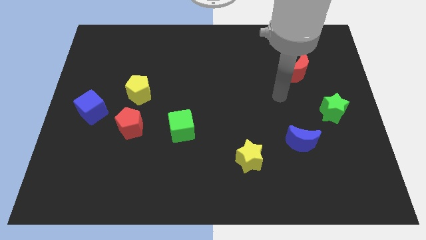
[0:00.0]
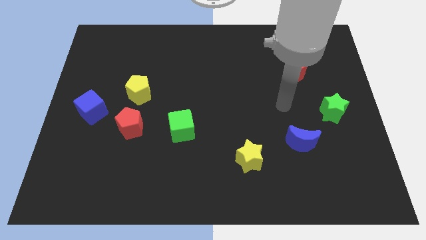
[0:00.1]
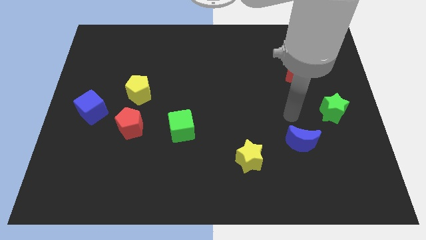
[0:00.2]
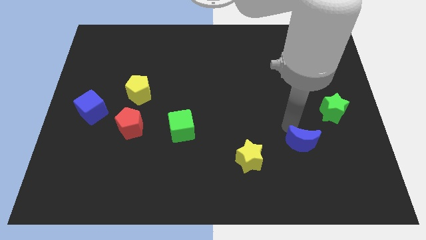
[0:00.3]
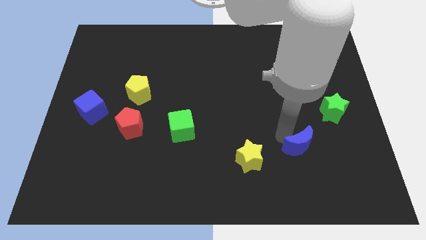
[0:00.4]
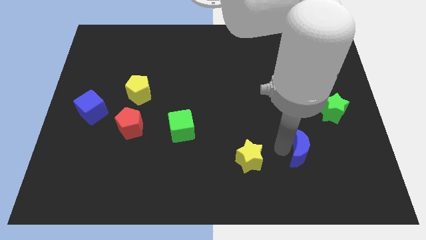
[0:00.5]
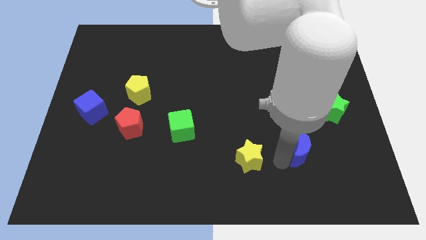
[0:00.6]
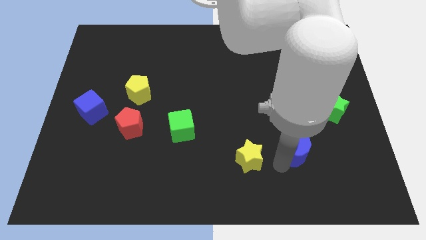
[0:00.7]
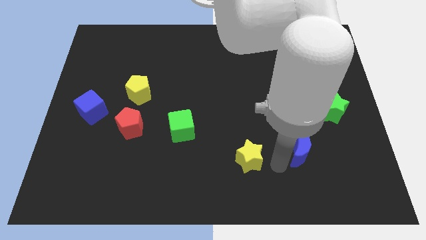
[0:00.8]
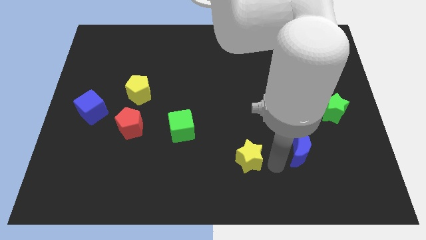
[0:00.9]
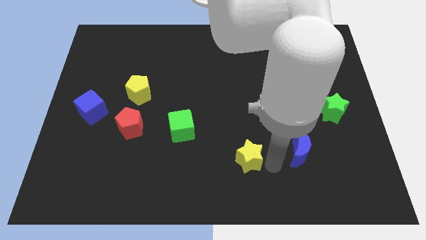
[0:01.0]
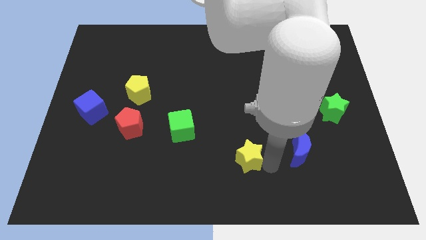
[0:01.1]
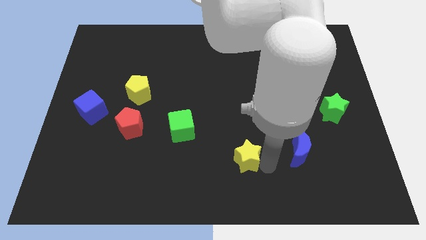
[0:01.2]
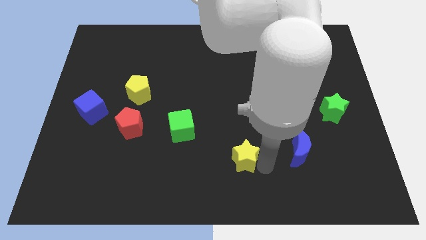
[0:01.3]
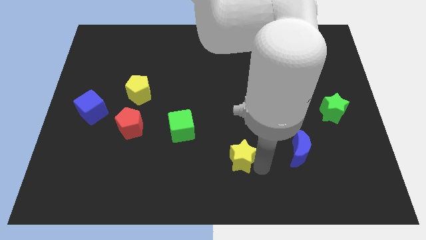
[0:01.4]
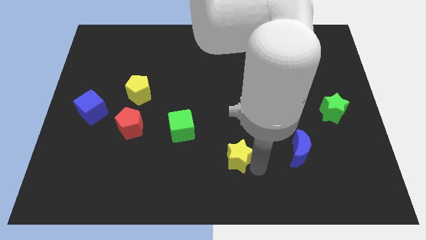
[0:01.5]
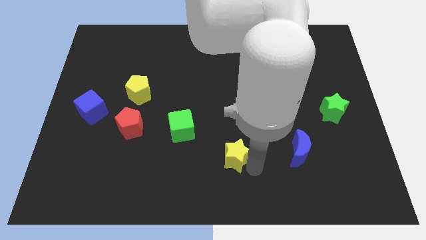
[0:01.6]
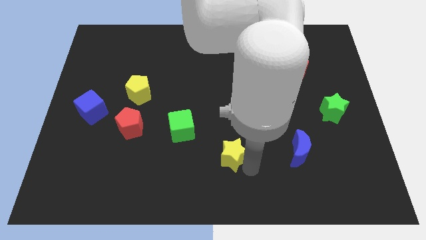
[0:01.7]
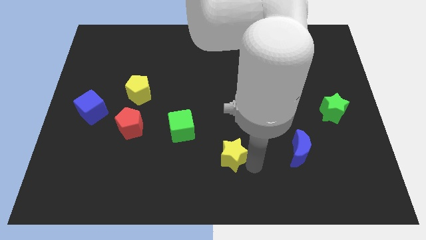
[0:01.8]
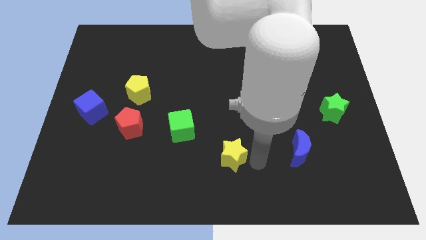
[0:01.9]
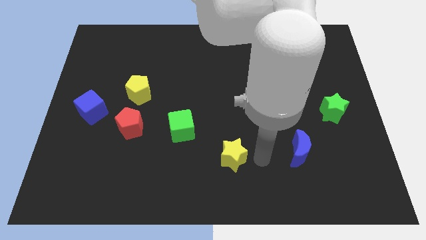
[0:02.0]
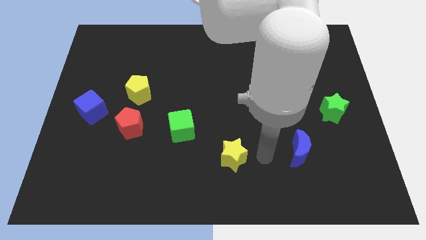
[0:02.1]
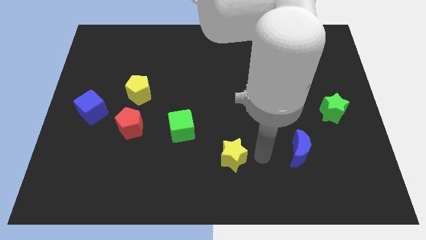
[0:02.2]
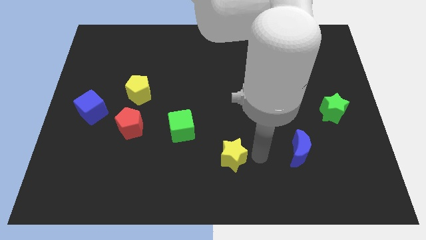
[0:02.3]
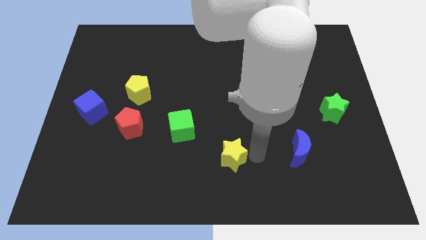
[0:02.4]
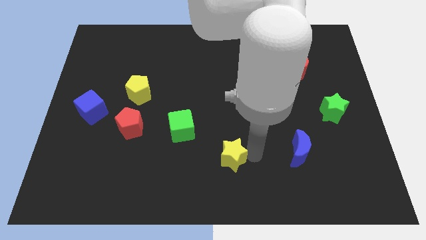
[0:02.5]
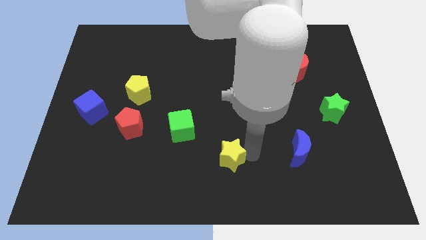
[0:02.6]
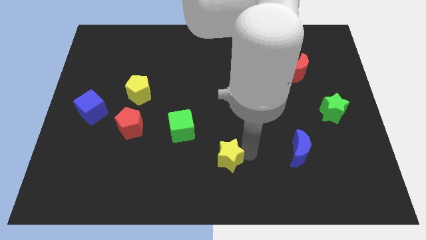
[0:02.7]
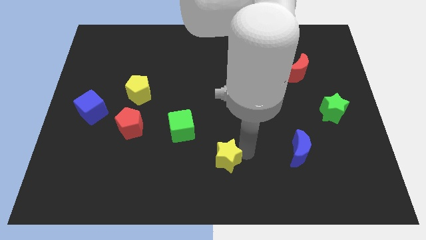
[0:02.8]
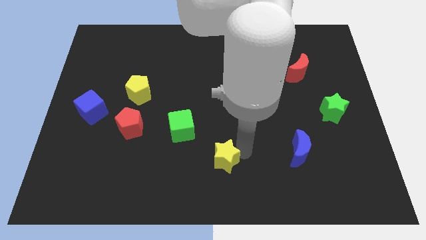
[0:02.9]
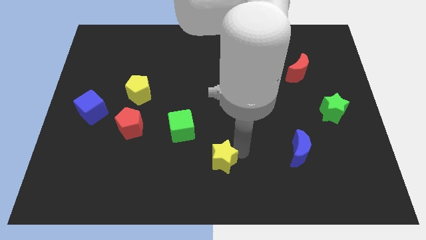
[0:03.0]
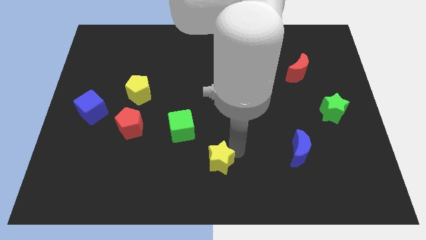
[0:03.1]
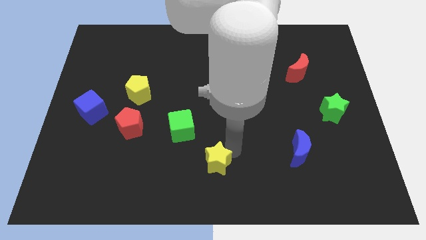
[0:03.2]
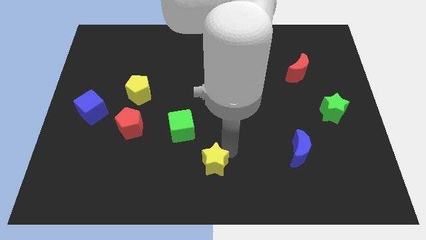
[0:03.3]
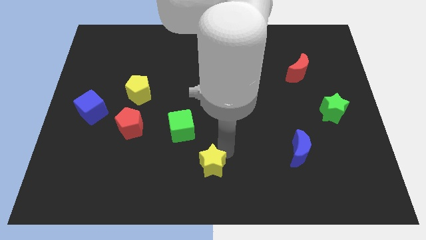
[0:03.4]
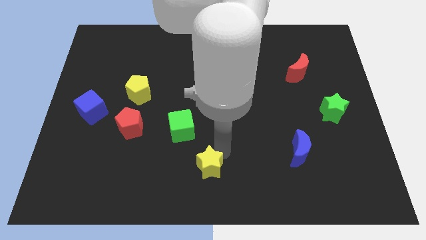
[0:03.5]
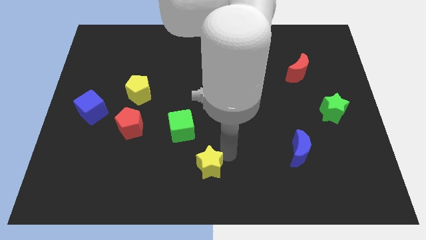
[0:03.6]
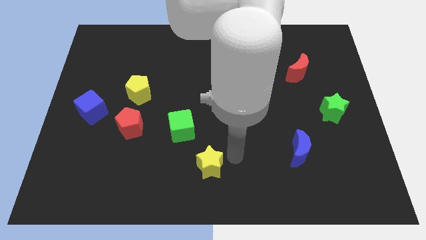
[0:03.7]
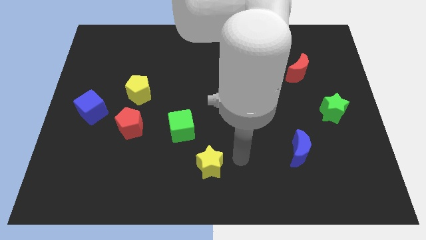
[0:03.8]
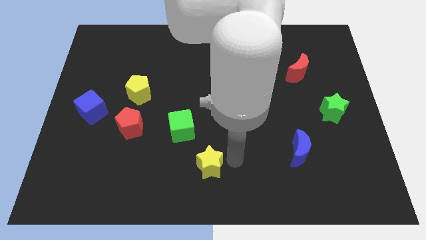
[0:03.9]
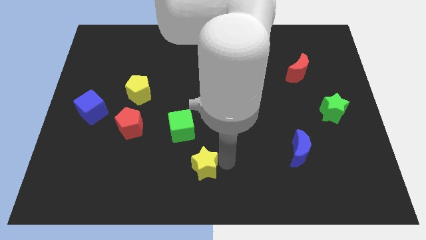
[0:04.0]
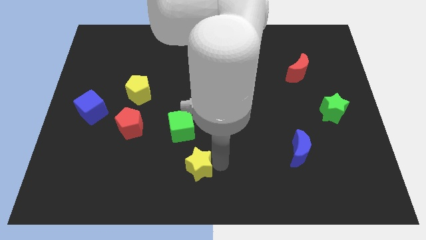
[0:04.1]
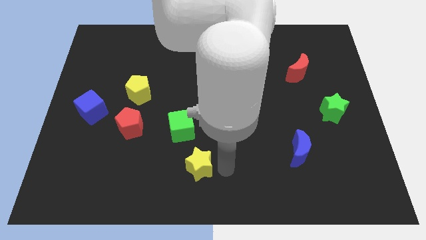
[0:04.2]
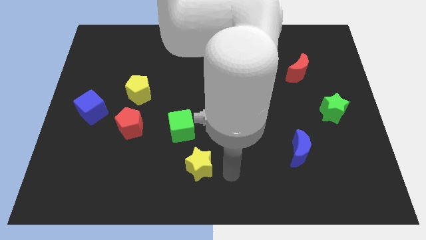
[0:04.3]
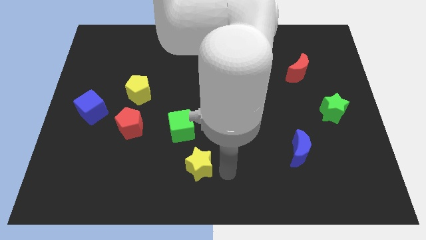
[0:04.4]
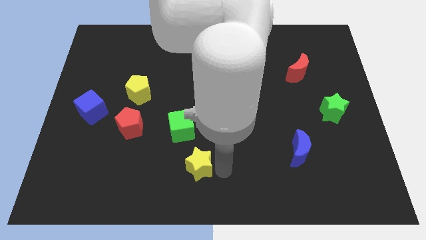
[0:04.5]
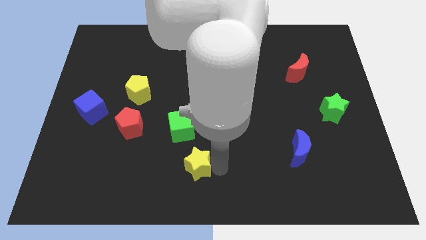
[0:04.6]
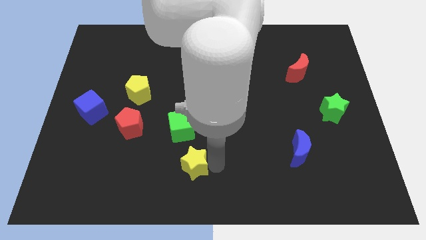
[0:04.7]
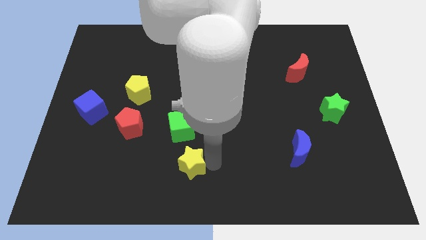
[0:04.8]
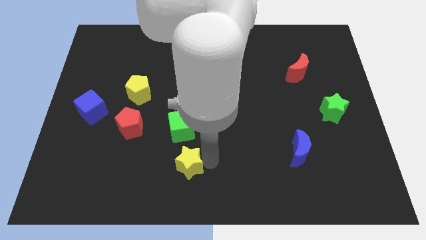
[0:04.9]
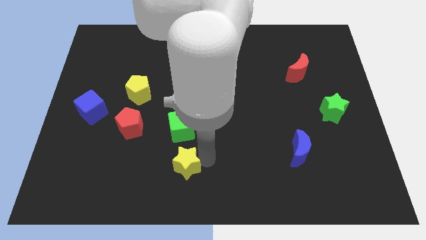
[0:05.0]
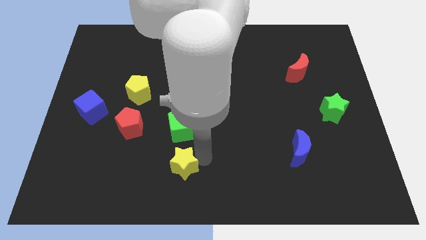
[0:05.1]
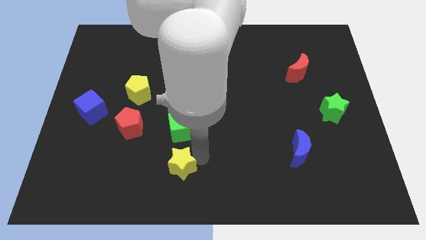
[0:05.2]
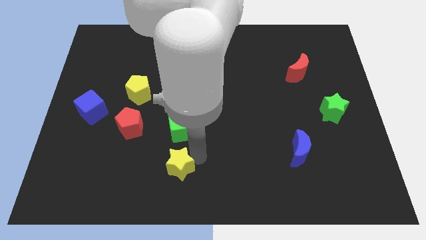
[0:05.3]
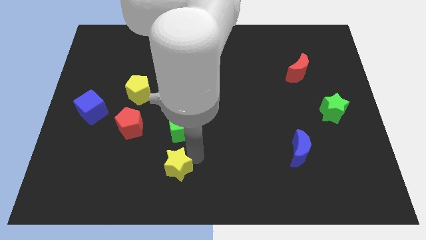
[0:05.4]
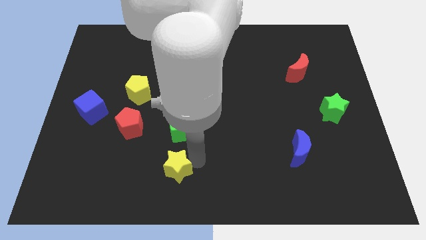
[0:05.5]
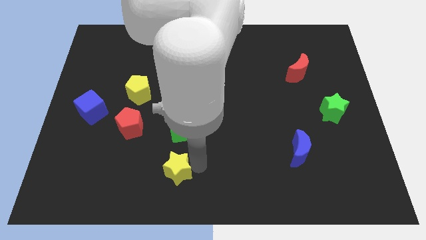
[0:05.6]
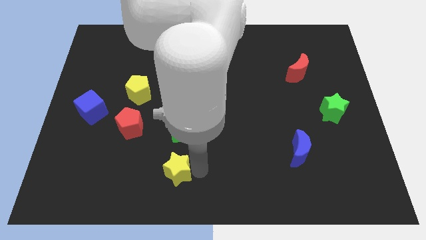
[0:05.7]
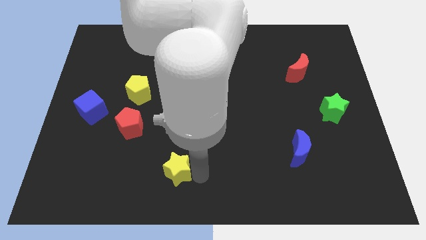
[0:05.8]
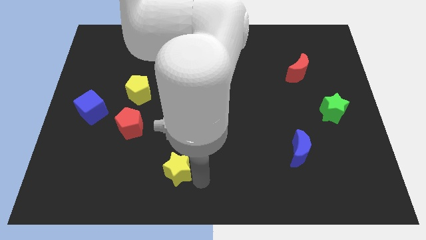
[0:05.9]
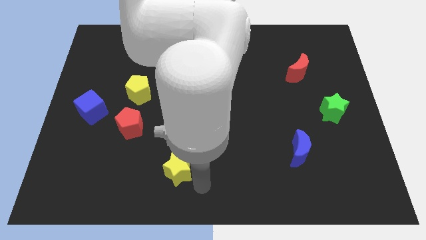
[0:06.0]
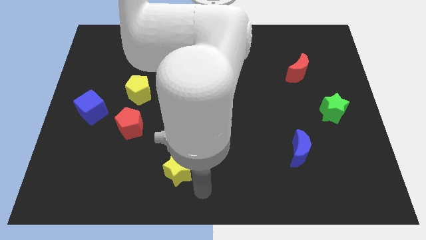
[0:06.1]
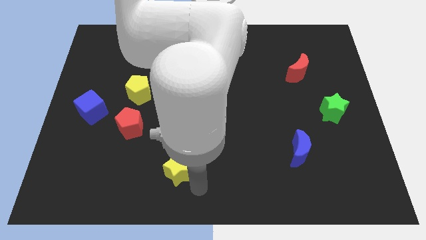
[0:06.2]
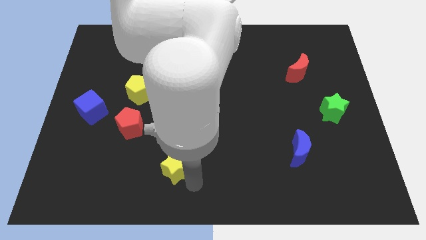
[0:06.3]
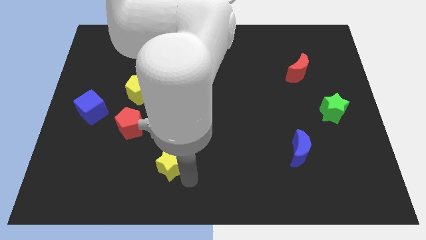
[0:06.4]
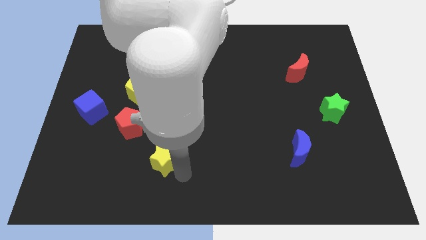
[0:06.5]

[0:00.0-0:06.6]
put the yellow star to the bottom right side of the red pentagon

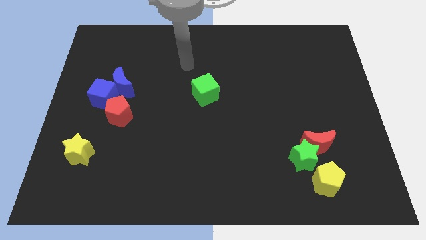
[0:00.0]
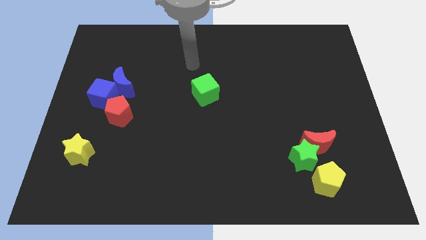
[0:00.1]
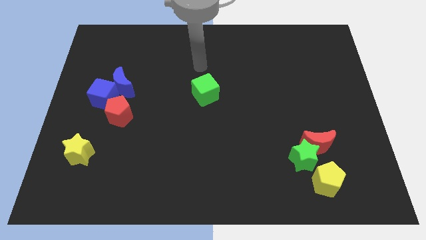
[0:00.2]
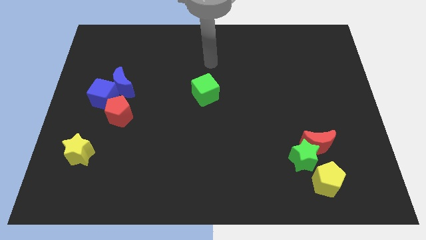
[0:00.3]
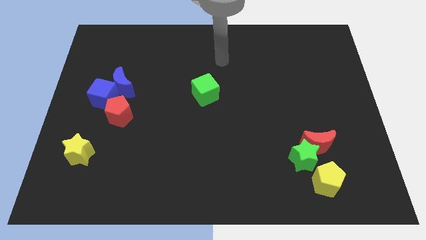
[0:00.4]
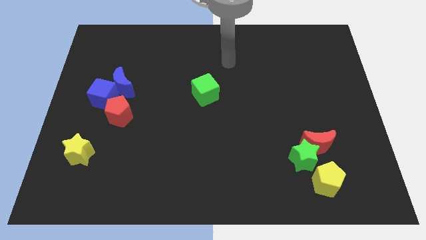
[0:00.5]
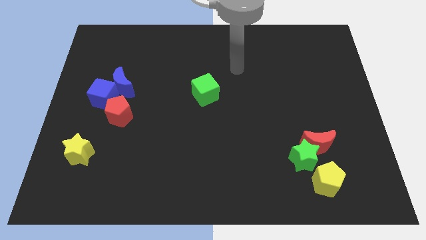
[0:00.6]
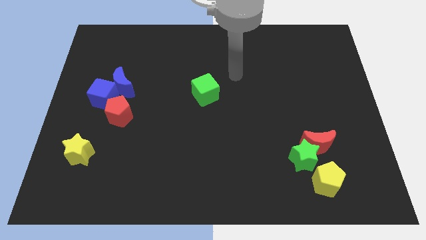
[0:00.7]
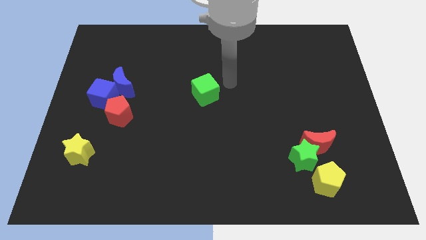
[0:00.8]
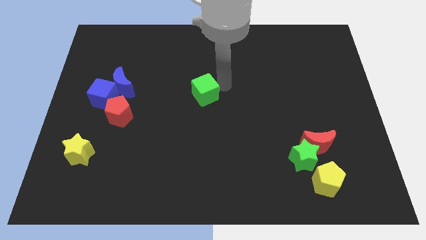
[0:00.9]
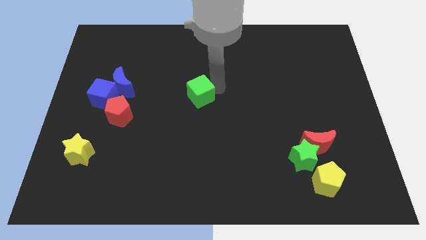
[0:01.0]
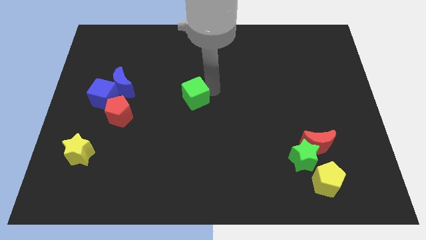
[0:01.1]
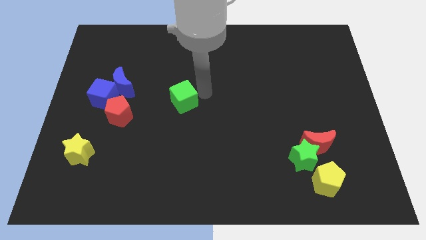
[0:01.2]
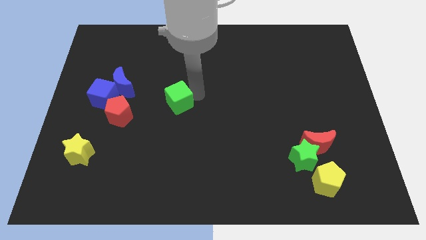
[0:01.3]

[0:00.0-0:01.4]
slide the green cube to the right of the red pentagon
